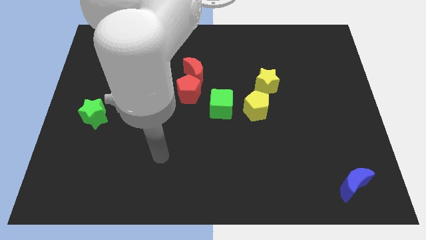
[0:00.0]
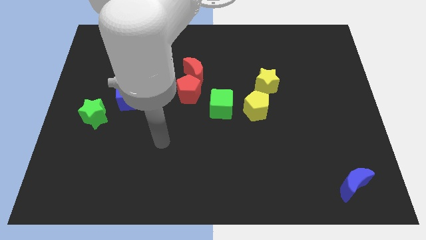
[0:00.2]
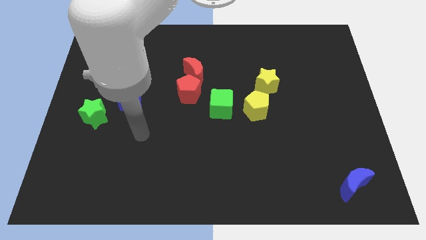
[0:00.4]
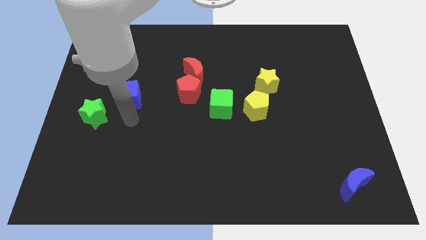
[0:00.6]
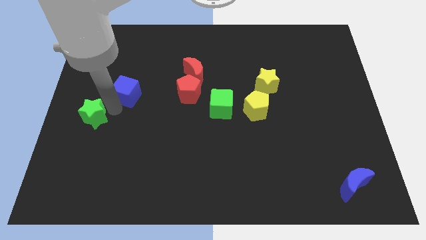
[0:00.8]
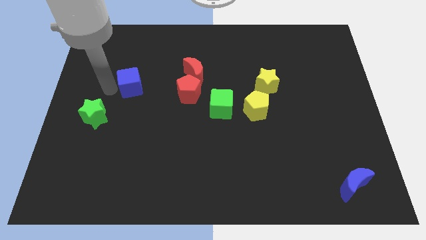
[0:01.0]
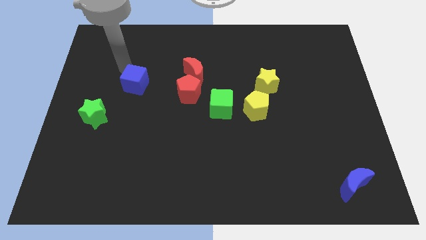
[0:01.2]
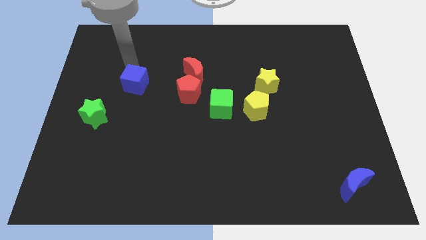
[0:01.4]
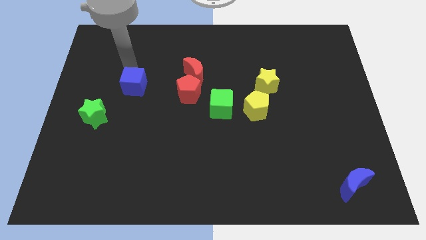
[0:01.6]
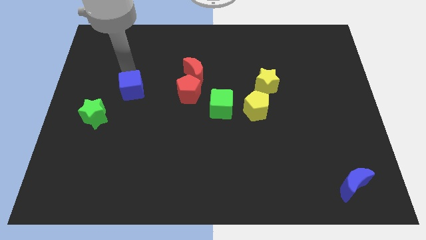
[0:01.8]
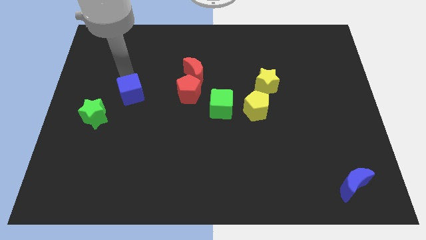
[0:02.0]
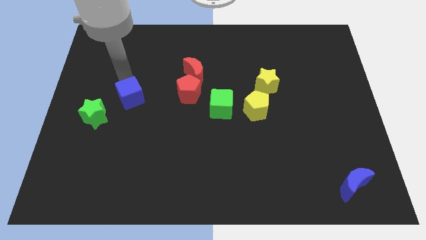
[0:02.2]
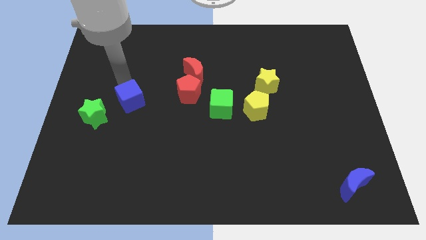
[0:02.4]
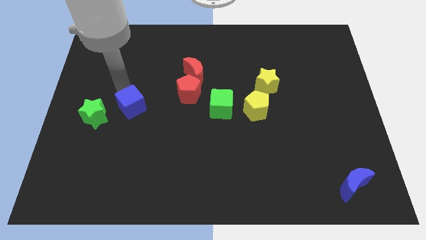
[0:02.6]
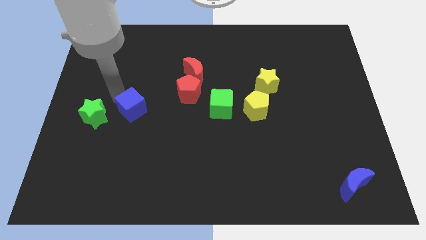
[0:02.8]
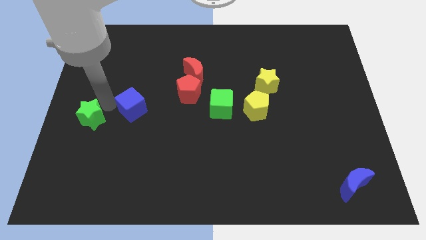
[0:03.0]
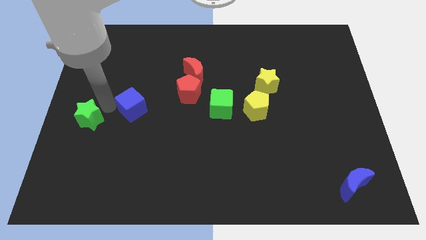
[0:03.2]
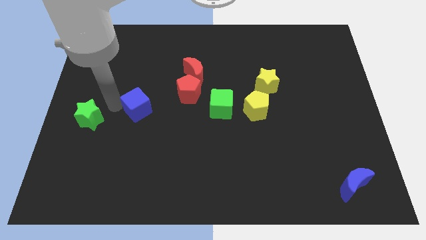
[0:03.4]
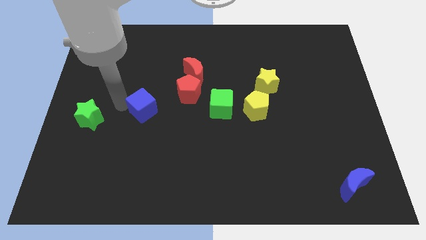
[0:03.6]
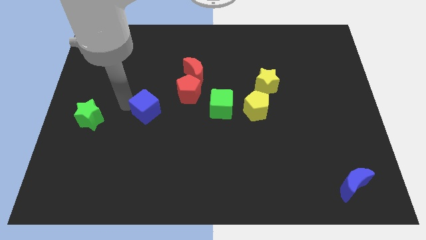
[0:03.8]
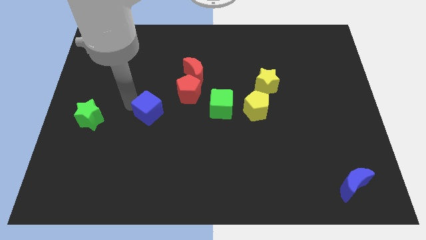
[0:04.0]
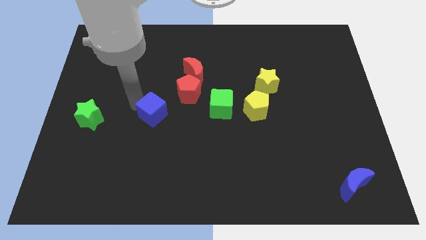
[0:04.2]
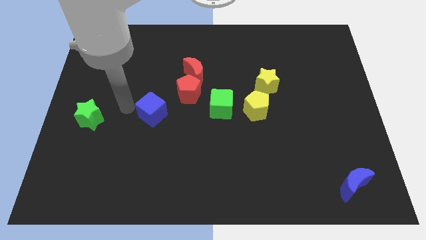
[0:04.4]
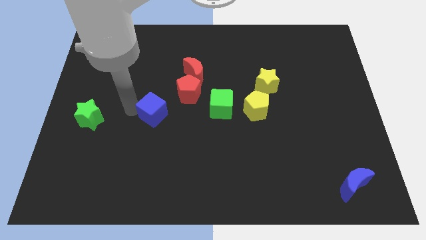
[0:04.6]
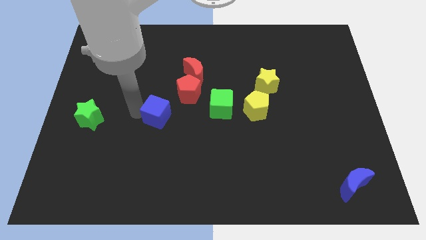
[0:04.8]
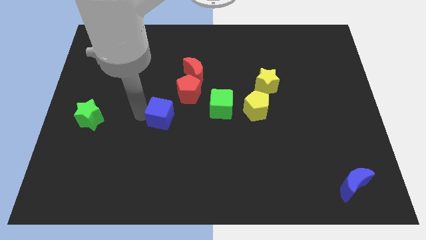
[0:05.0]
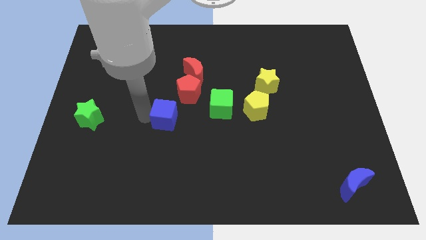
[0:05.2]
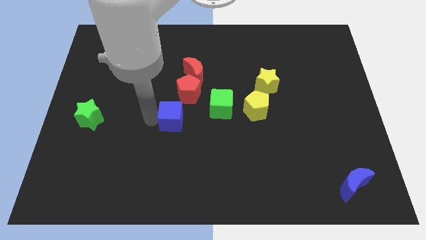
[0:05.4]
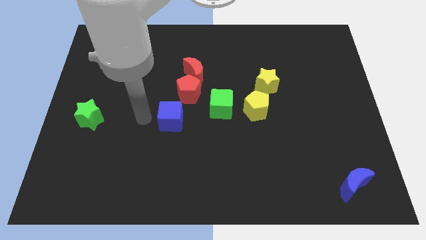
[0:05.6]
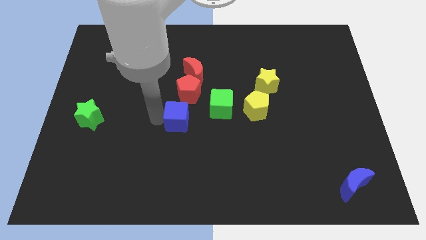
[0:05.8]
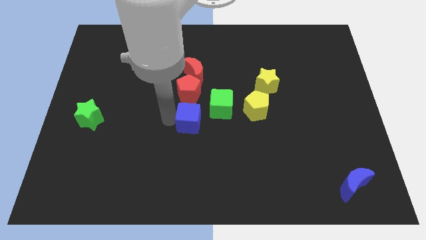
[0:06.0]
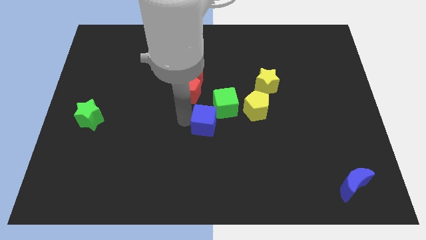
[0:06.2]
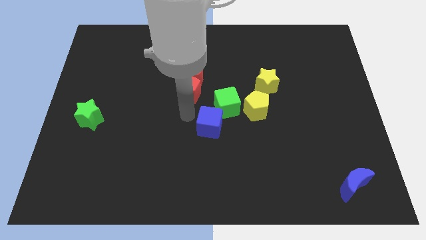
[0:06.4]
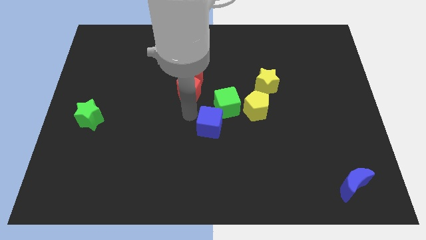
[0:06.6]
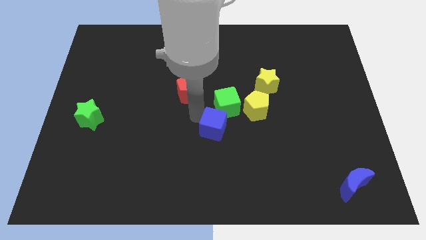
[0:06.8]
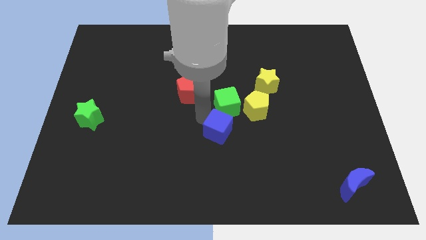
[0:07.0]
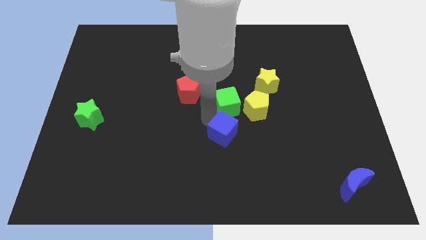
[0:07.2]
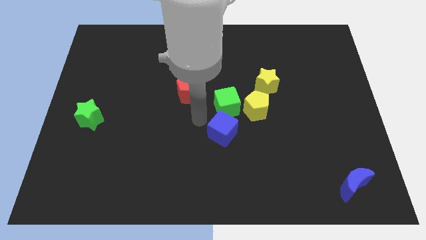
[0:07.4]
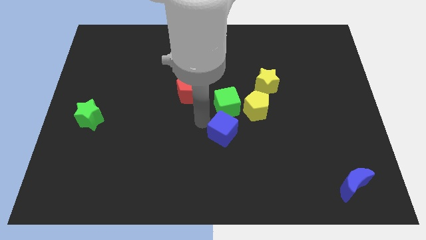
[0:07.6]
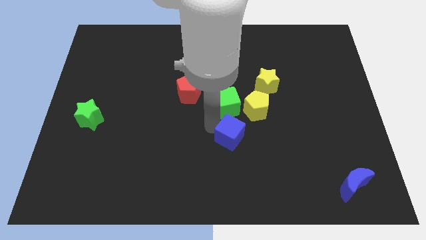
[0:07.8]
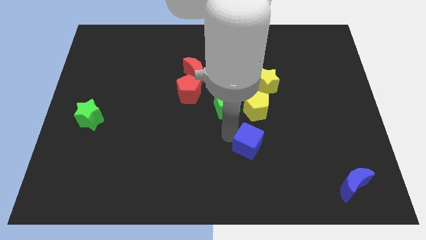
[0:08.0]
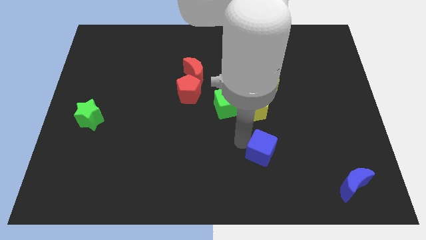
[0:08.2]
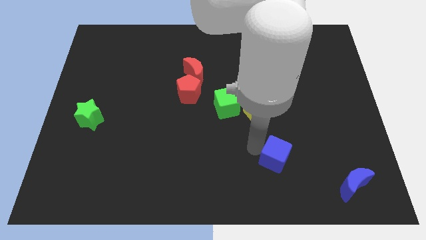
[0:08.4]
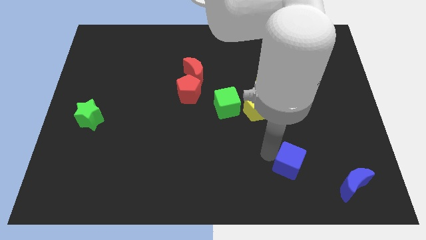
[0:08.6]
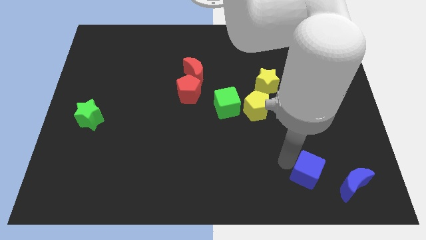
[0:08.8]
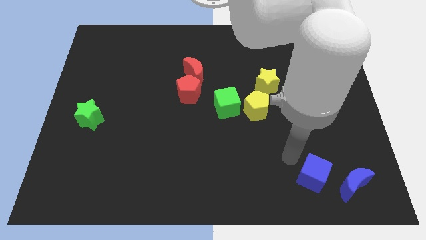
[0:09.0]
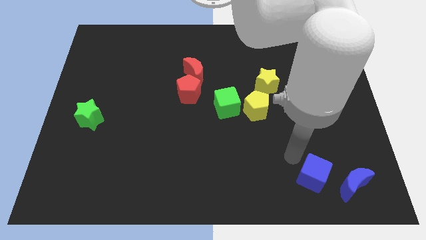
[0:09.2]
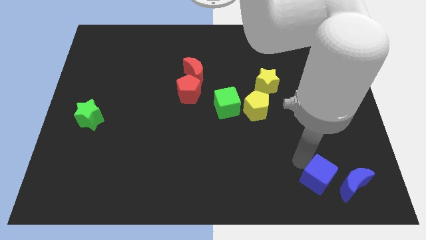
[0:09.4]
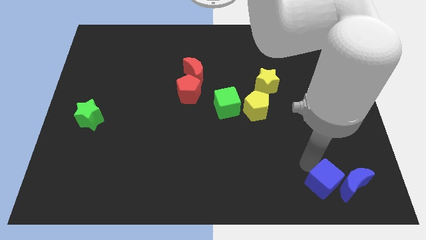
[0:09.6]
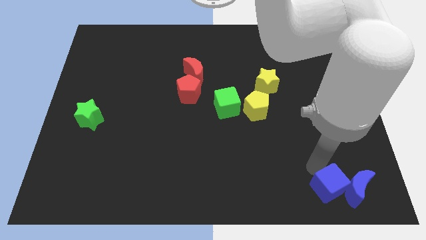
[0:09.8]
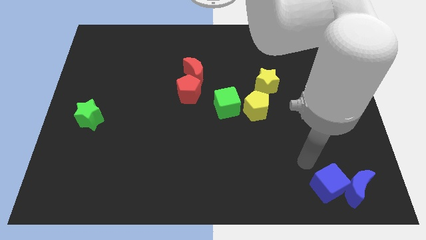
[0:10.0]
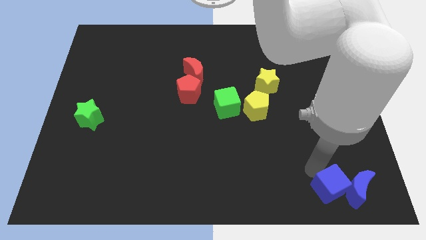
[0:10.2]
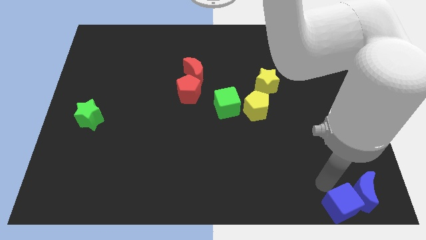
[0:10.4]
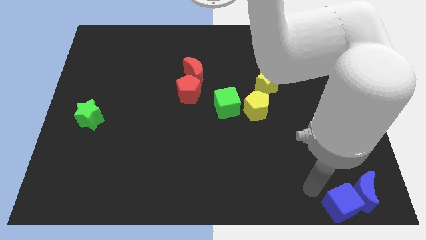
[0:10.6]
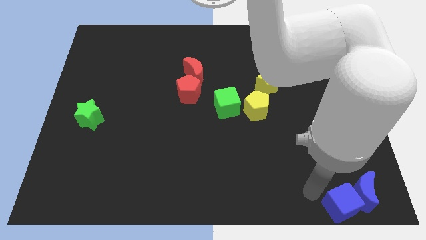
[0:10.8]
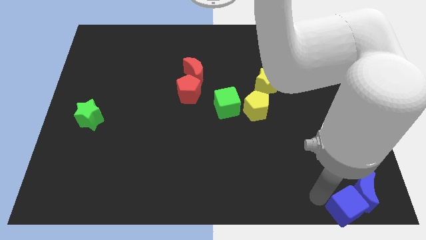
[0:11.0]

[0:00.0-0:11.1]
push the blue cube to the bottom right corner

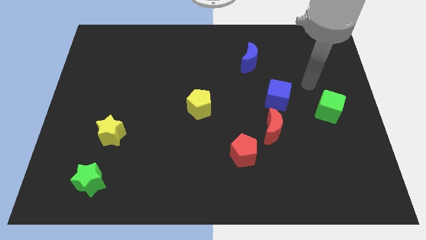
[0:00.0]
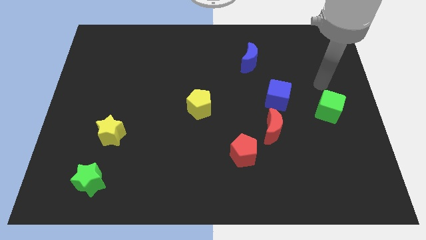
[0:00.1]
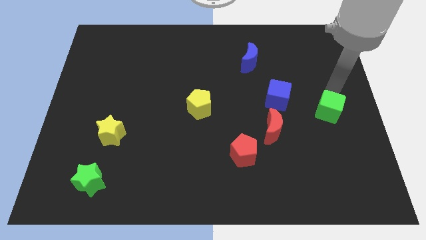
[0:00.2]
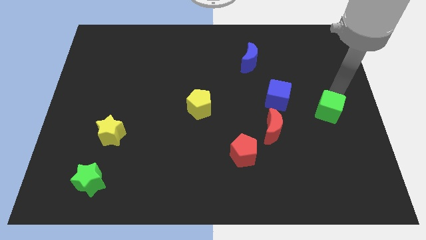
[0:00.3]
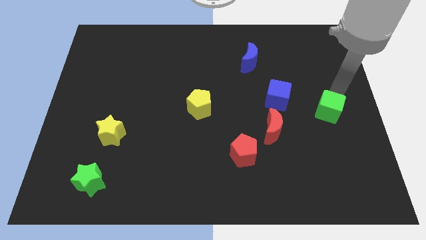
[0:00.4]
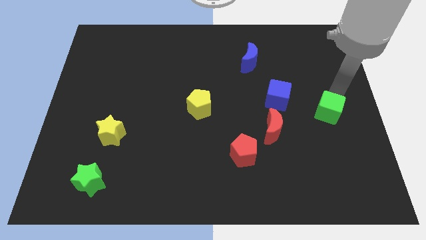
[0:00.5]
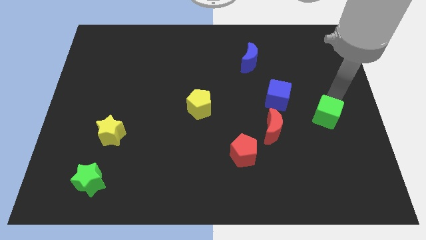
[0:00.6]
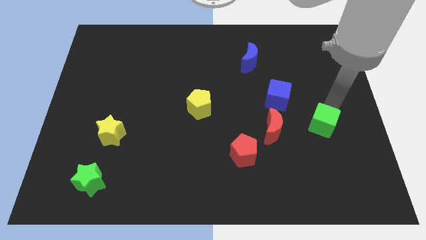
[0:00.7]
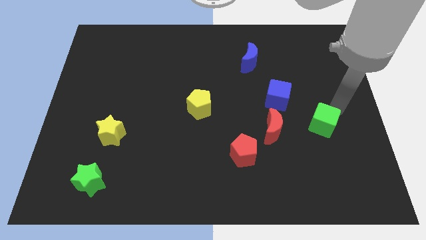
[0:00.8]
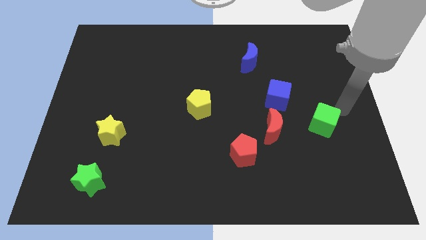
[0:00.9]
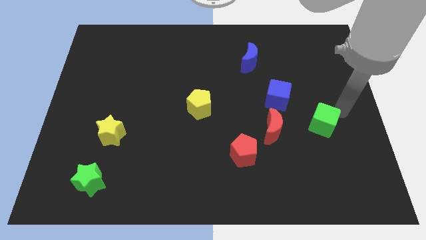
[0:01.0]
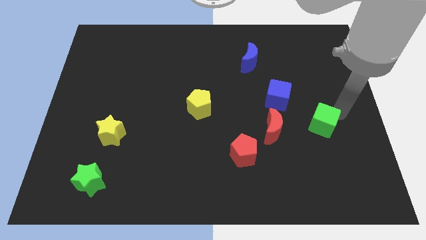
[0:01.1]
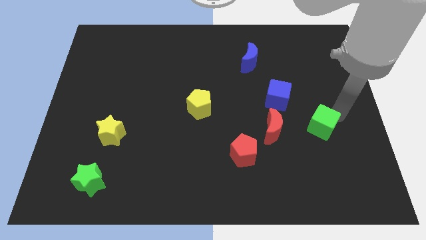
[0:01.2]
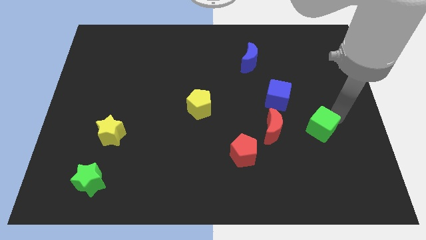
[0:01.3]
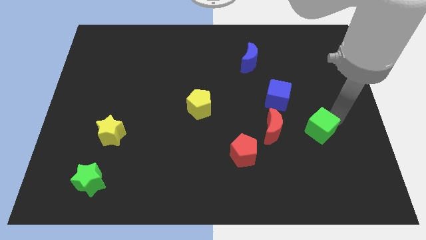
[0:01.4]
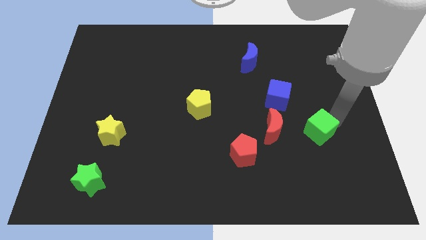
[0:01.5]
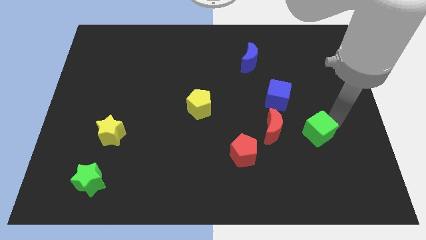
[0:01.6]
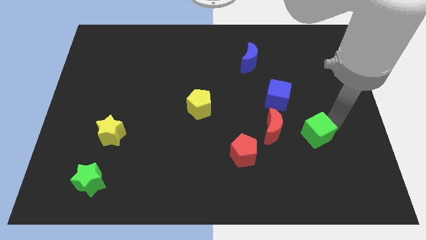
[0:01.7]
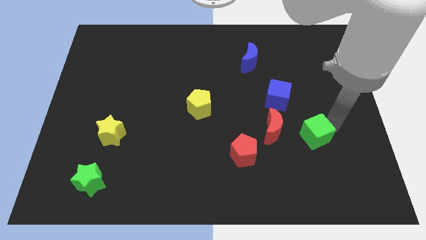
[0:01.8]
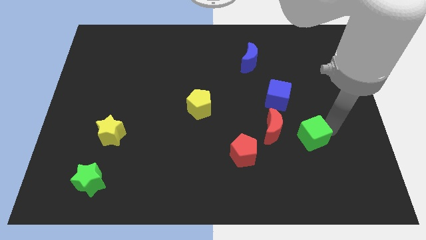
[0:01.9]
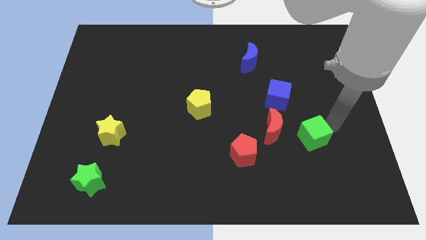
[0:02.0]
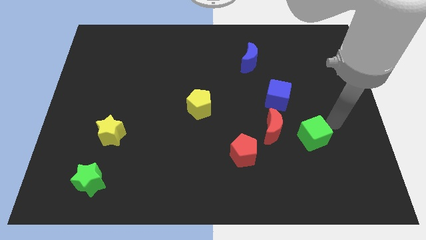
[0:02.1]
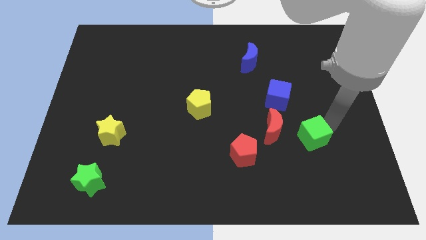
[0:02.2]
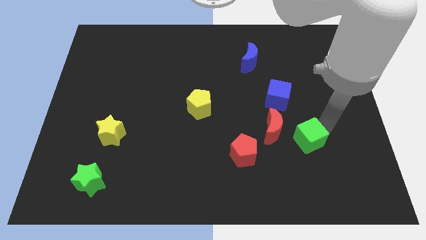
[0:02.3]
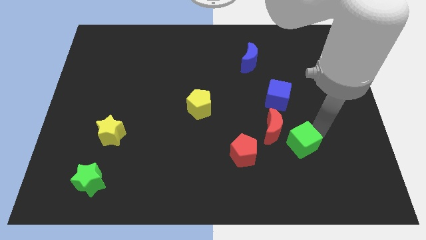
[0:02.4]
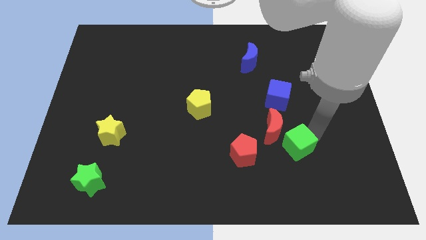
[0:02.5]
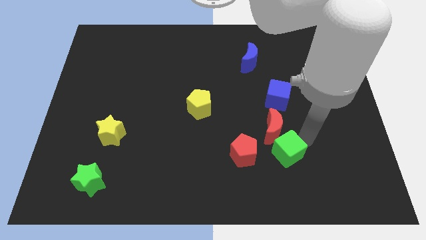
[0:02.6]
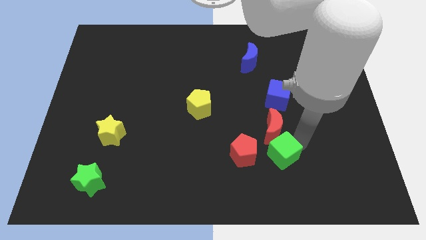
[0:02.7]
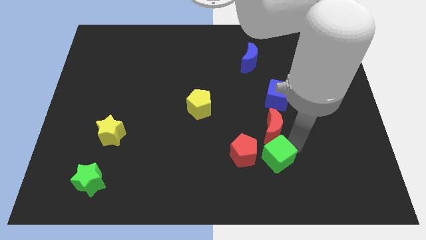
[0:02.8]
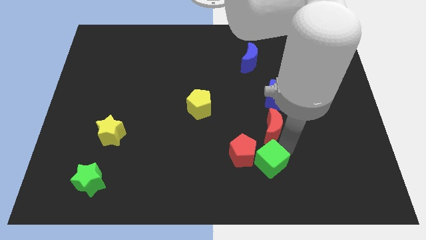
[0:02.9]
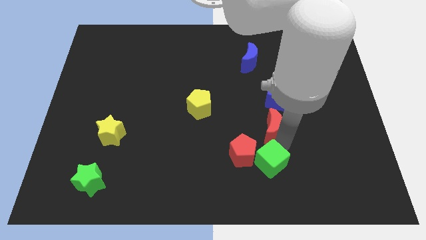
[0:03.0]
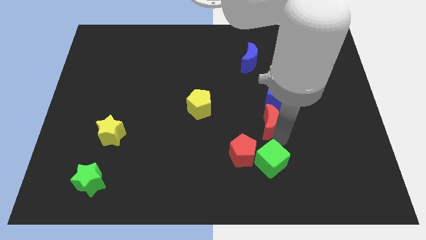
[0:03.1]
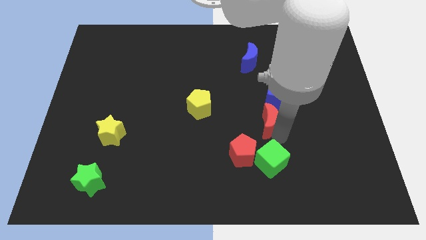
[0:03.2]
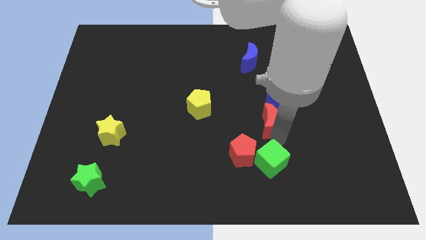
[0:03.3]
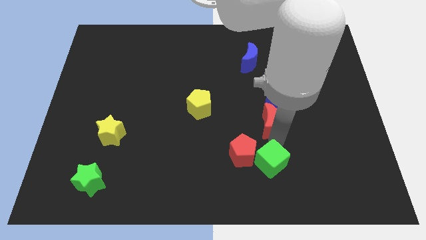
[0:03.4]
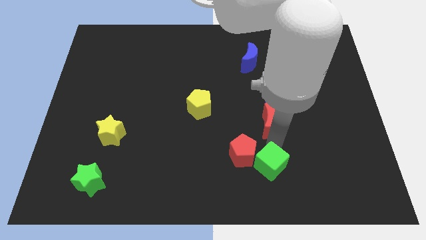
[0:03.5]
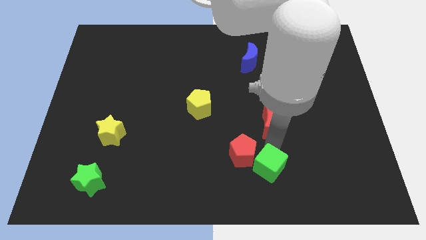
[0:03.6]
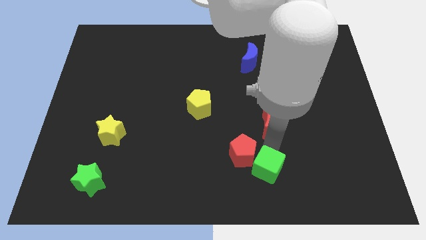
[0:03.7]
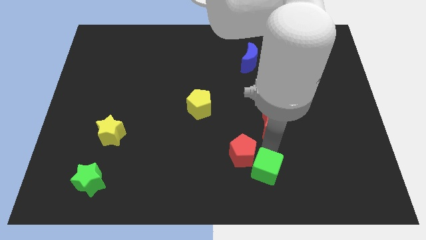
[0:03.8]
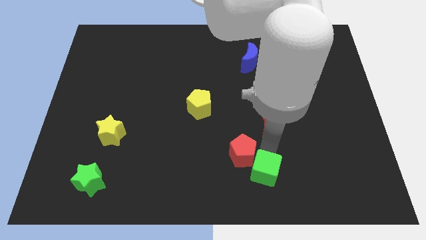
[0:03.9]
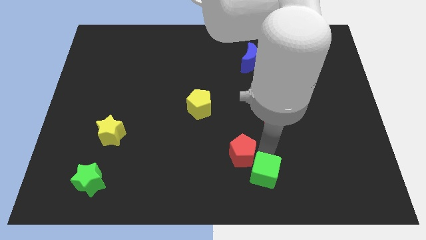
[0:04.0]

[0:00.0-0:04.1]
put the green cube to the bottom side
